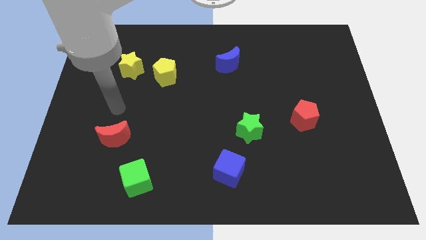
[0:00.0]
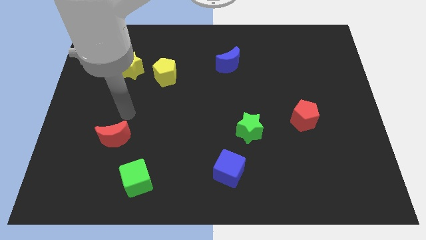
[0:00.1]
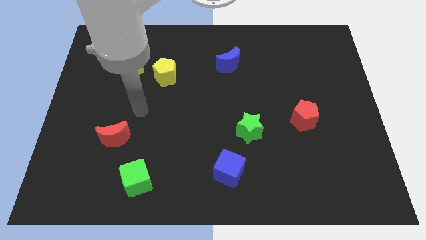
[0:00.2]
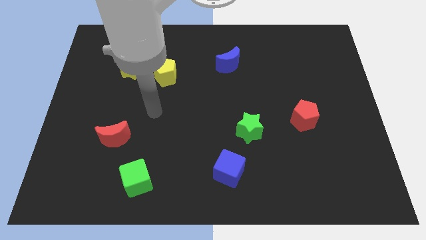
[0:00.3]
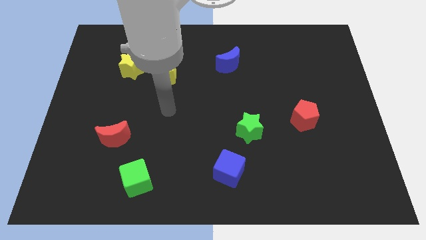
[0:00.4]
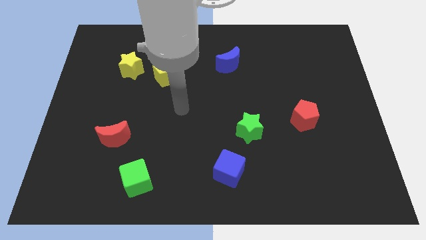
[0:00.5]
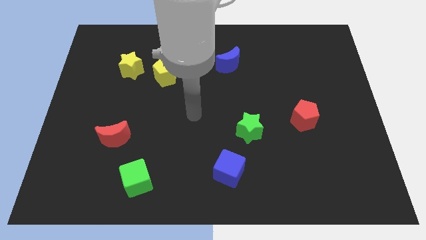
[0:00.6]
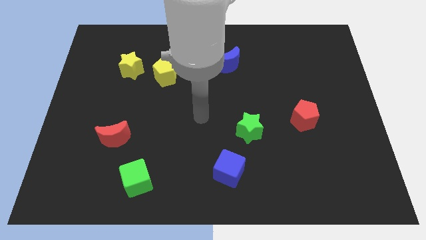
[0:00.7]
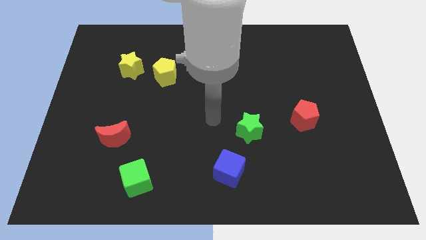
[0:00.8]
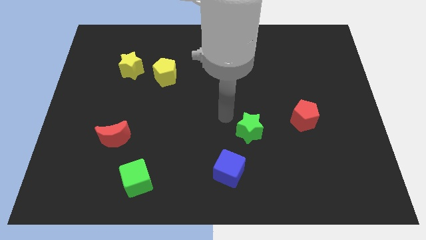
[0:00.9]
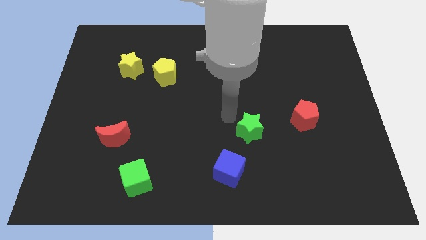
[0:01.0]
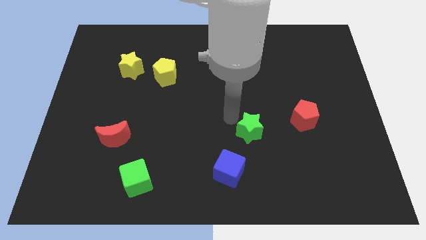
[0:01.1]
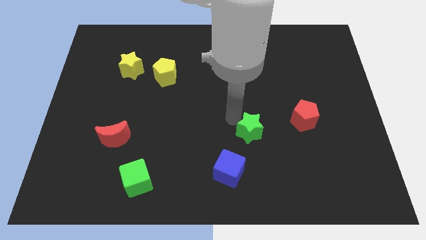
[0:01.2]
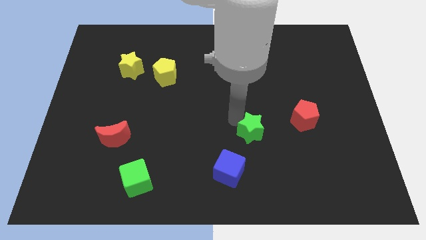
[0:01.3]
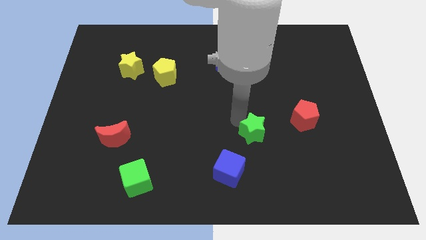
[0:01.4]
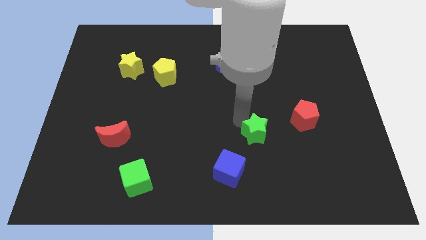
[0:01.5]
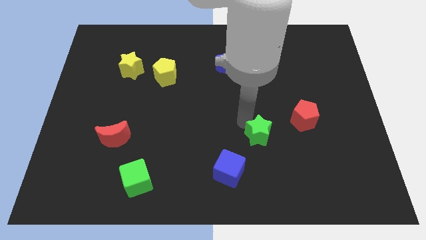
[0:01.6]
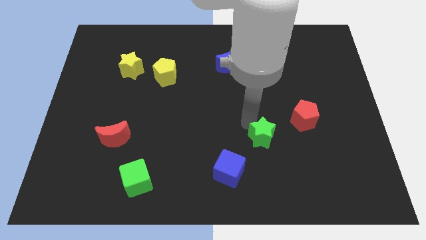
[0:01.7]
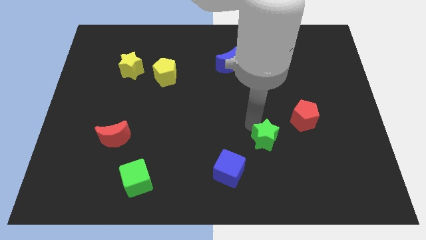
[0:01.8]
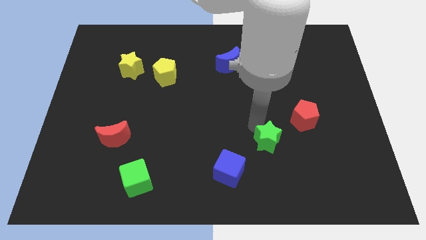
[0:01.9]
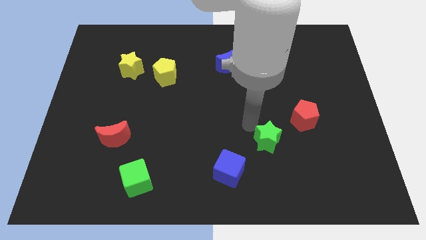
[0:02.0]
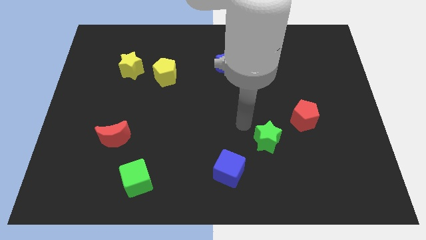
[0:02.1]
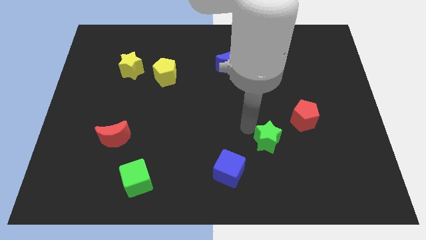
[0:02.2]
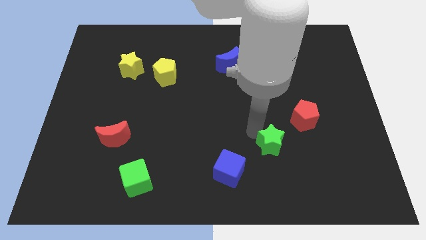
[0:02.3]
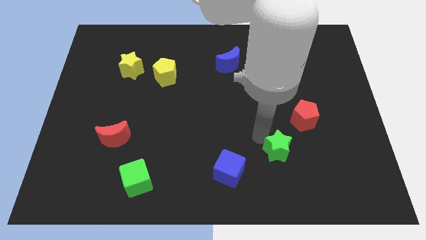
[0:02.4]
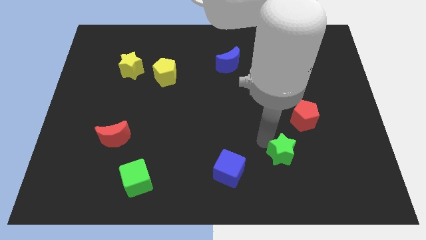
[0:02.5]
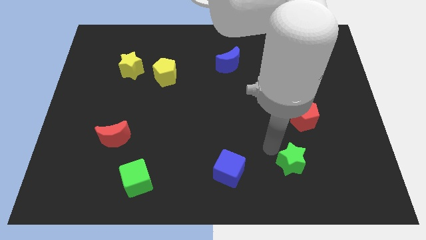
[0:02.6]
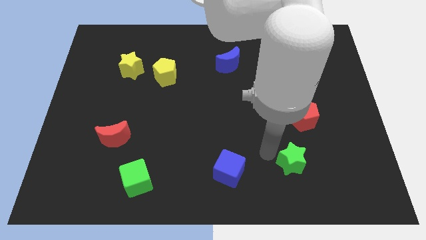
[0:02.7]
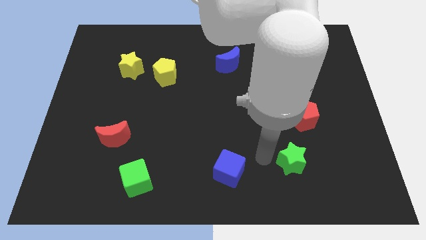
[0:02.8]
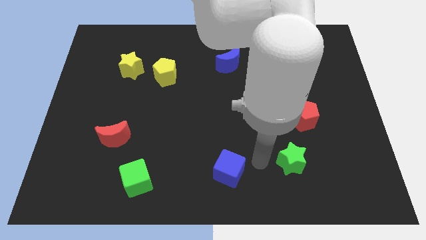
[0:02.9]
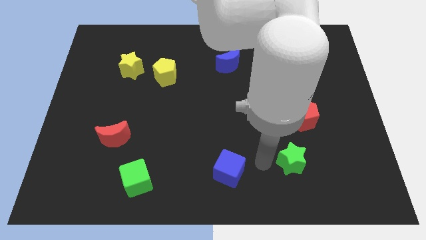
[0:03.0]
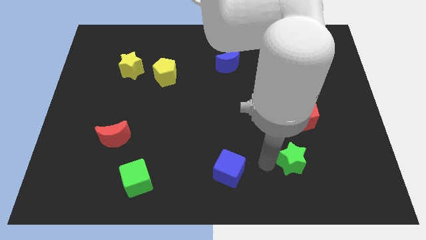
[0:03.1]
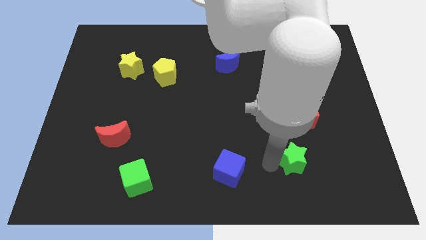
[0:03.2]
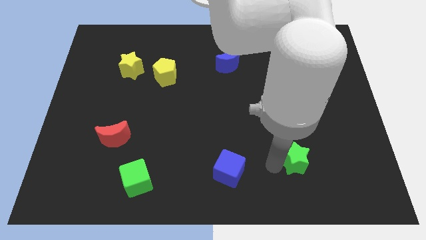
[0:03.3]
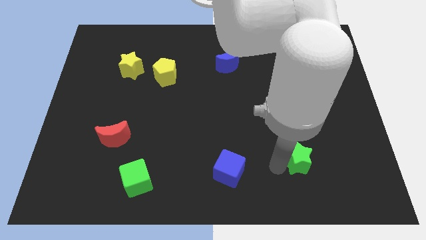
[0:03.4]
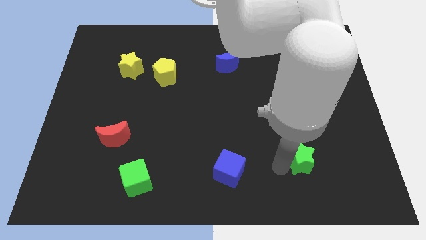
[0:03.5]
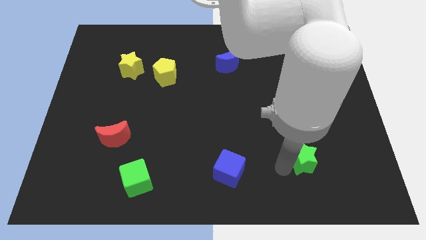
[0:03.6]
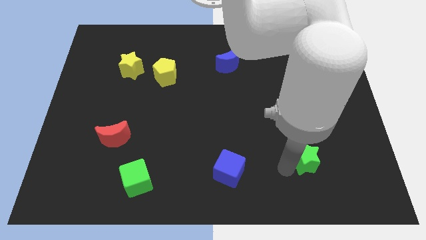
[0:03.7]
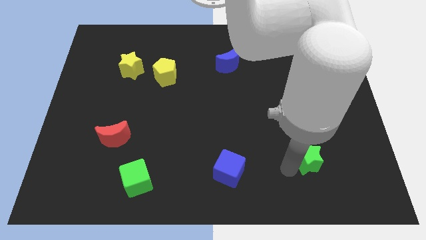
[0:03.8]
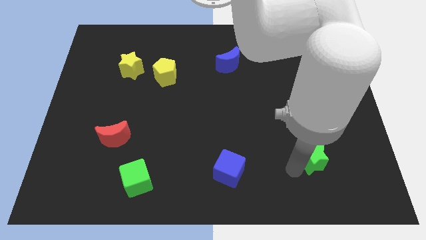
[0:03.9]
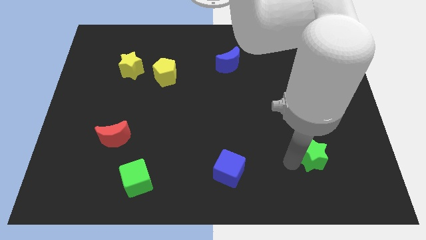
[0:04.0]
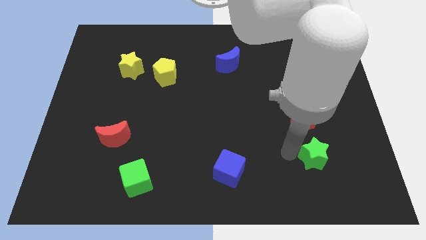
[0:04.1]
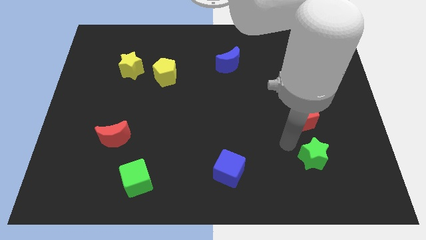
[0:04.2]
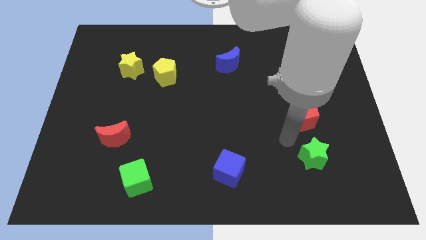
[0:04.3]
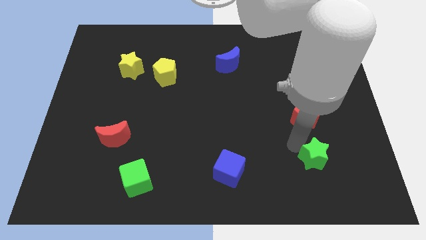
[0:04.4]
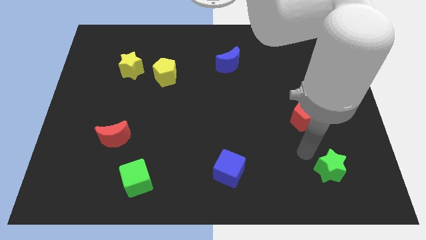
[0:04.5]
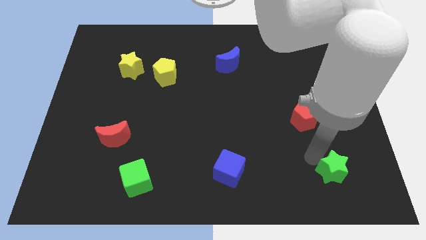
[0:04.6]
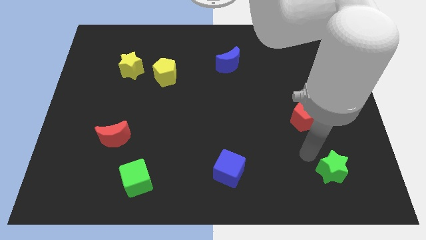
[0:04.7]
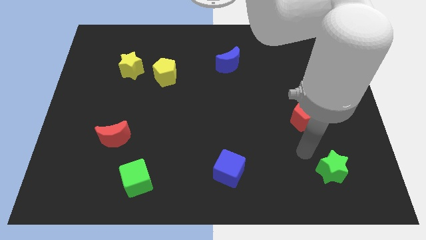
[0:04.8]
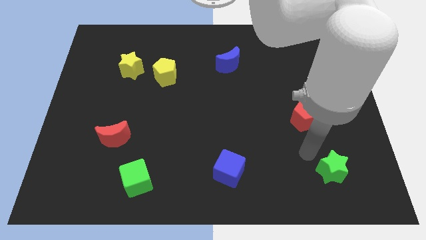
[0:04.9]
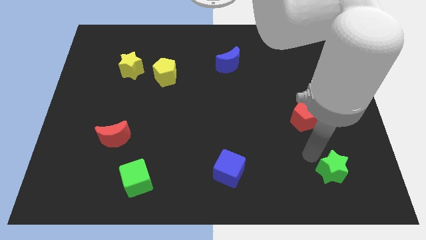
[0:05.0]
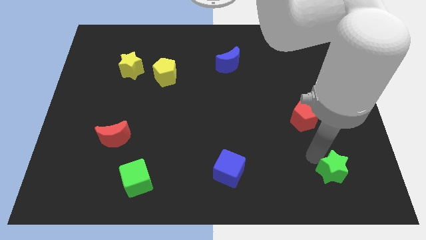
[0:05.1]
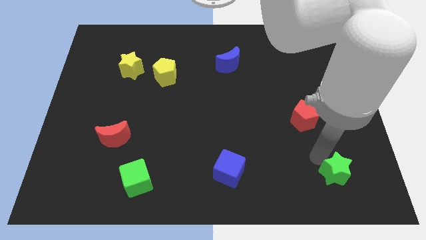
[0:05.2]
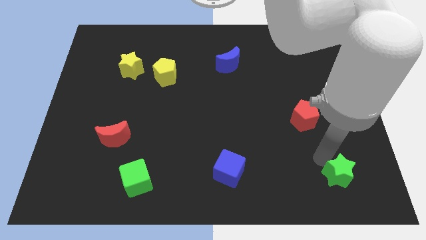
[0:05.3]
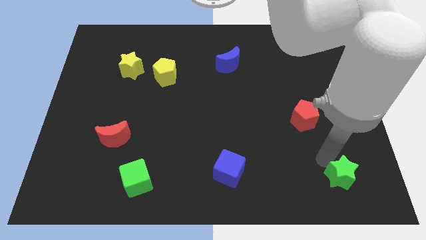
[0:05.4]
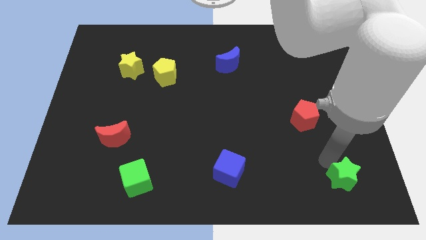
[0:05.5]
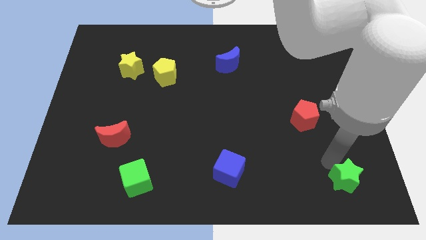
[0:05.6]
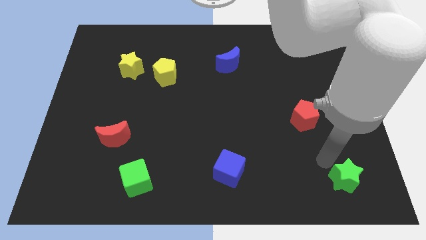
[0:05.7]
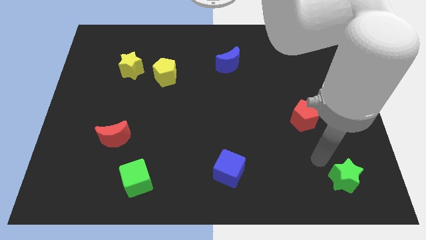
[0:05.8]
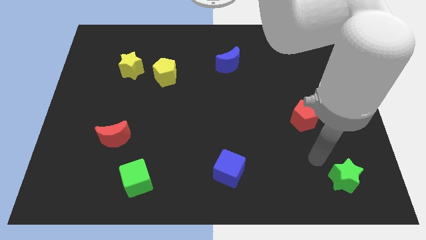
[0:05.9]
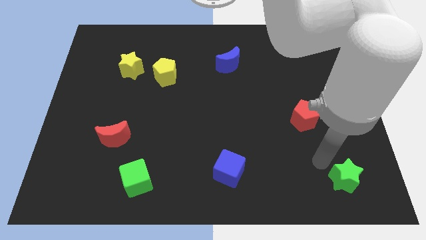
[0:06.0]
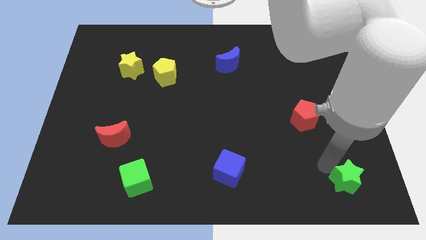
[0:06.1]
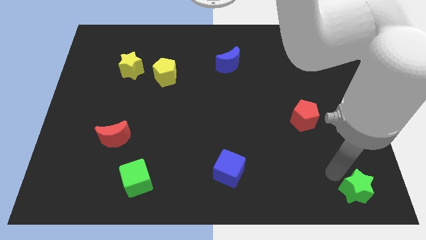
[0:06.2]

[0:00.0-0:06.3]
slide the green star to the bottom right of the board

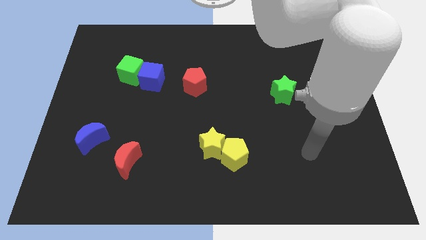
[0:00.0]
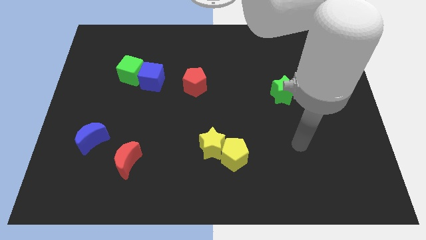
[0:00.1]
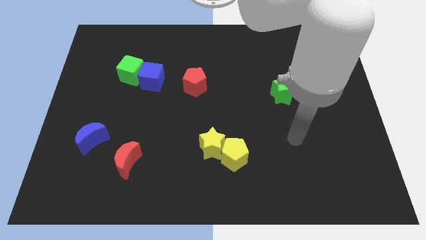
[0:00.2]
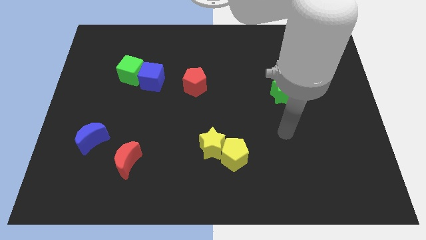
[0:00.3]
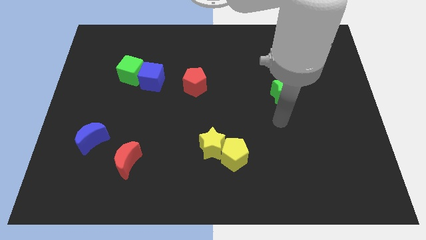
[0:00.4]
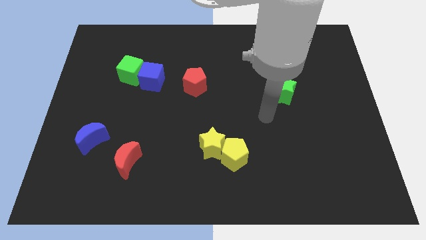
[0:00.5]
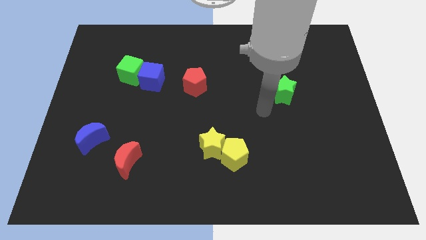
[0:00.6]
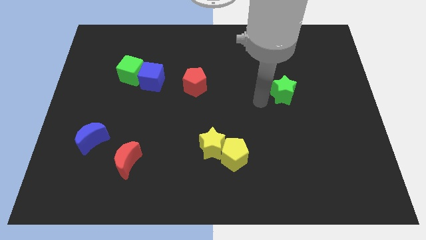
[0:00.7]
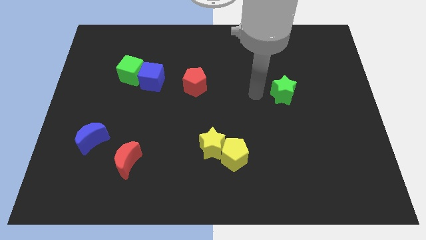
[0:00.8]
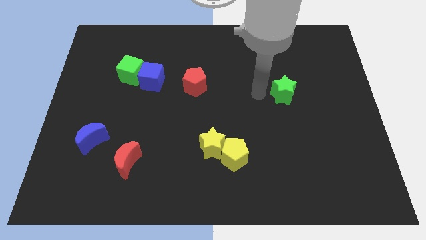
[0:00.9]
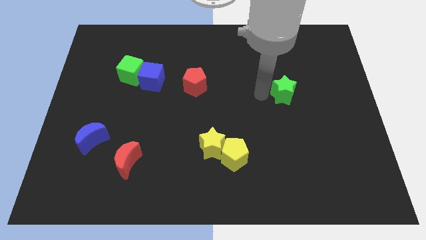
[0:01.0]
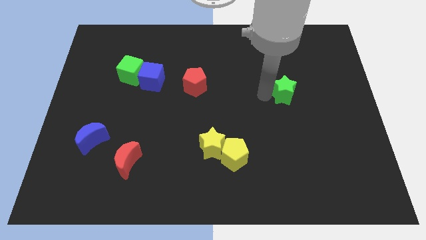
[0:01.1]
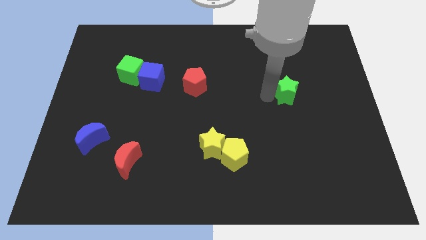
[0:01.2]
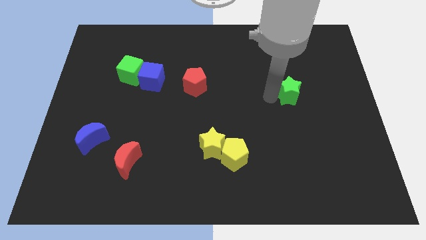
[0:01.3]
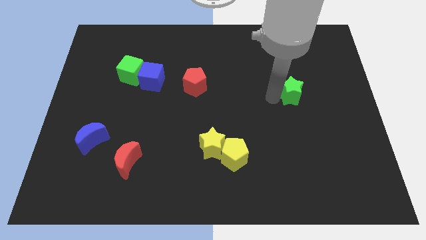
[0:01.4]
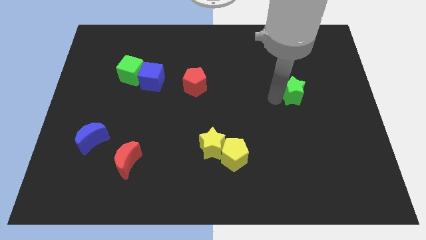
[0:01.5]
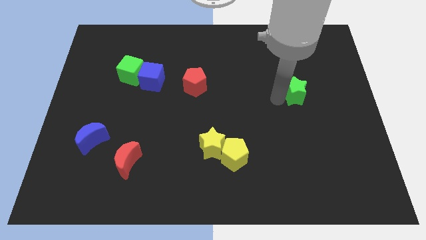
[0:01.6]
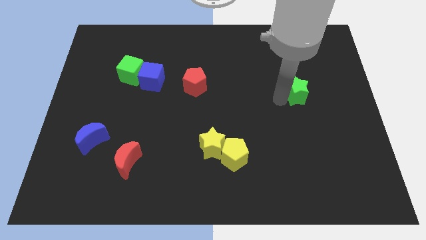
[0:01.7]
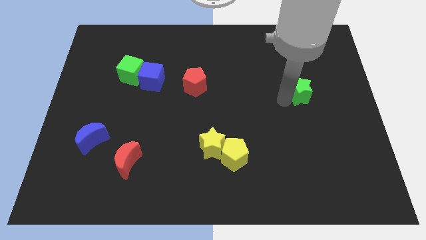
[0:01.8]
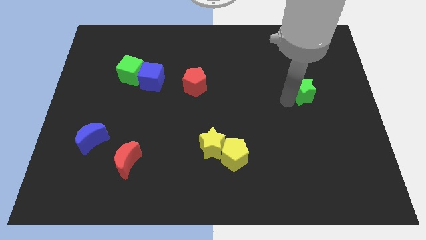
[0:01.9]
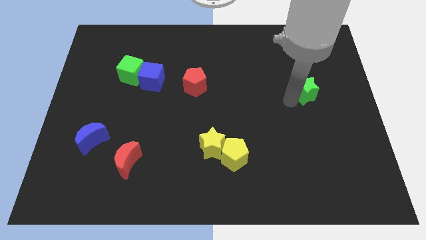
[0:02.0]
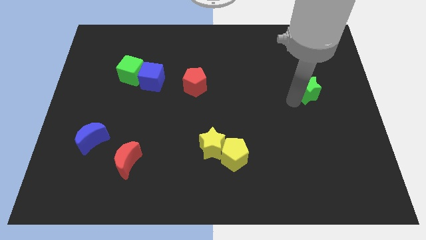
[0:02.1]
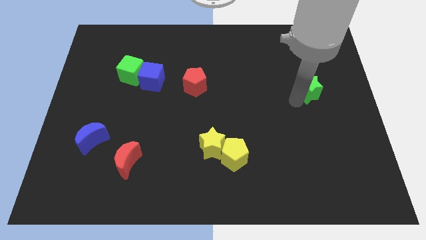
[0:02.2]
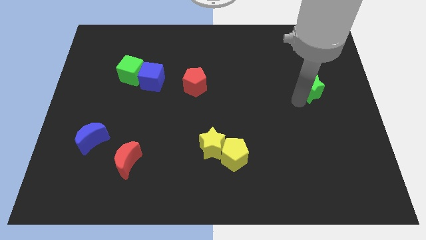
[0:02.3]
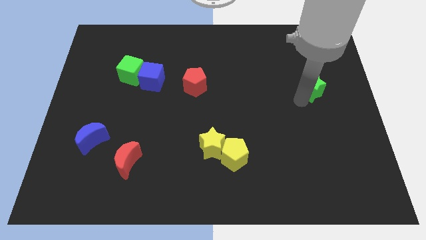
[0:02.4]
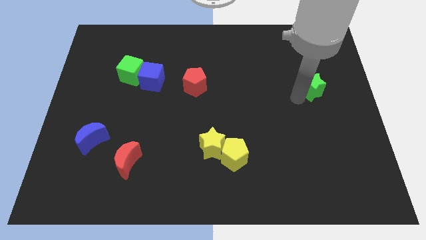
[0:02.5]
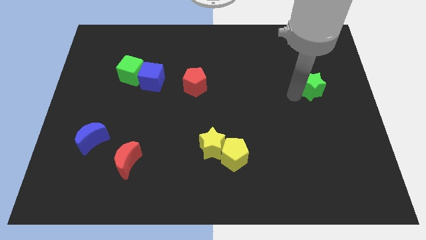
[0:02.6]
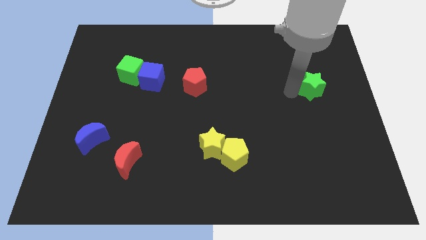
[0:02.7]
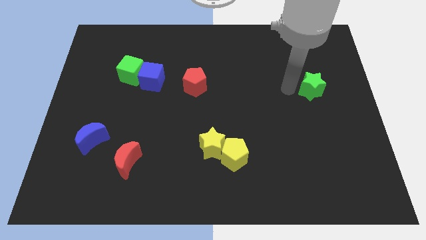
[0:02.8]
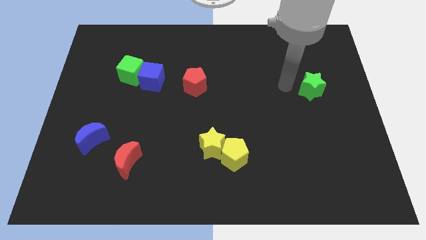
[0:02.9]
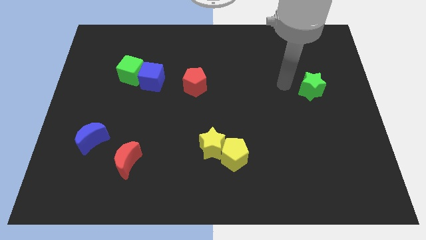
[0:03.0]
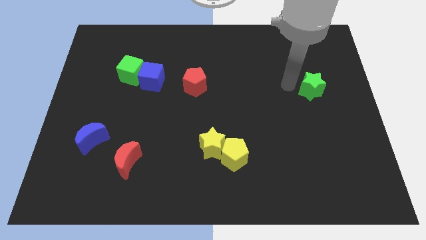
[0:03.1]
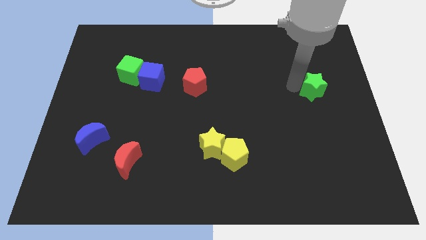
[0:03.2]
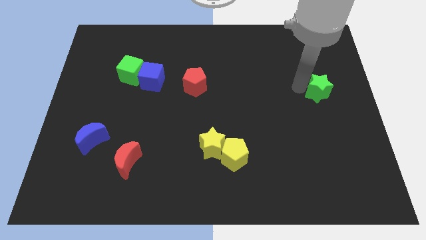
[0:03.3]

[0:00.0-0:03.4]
put the green star to the right side
